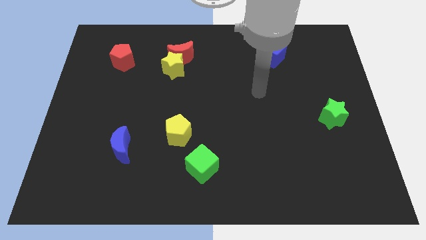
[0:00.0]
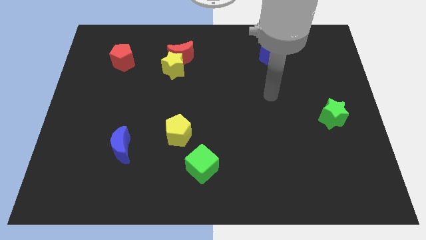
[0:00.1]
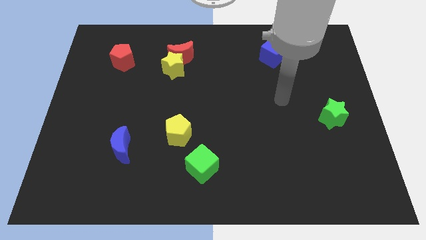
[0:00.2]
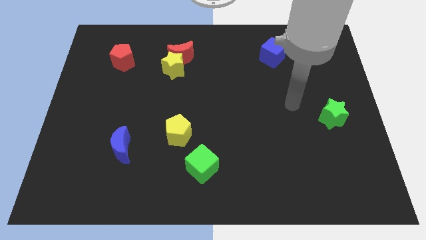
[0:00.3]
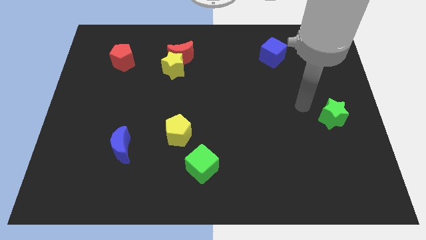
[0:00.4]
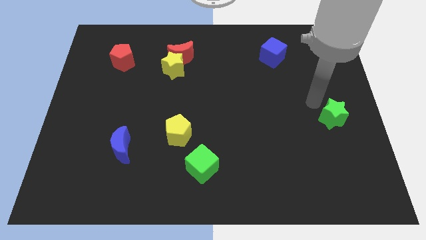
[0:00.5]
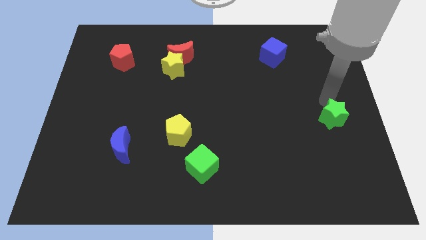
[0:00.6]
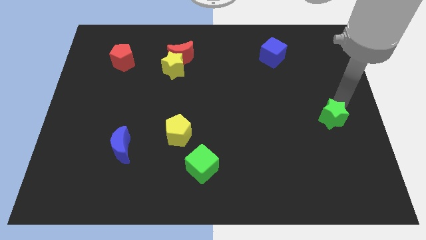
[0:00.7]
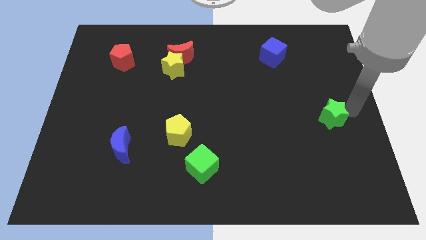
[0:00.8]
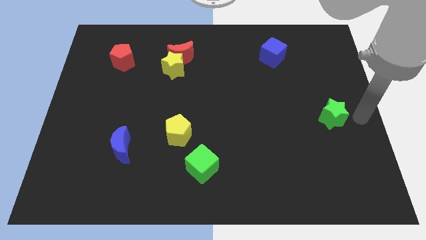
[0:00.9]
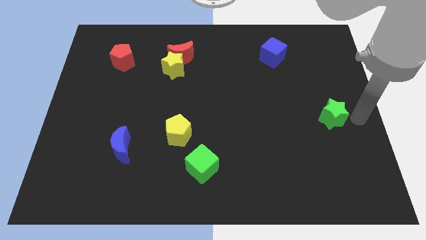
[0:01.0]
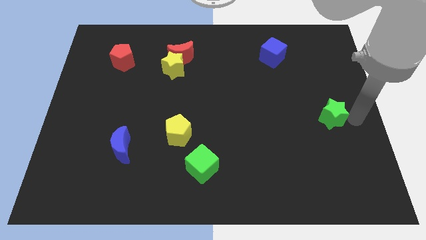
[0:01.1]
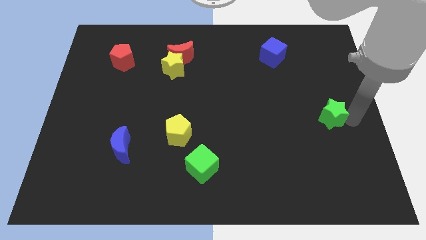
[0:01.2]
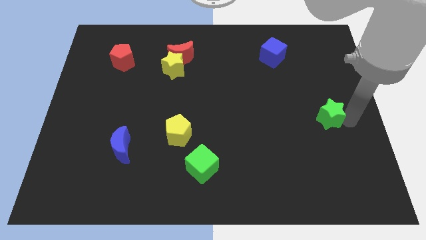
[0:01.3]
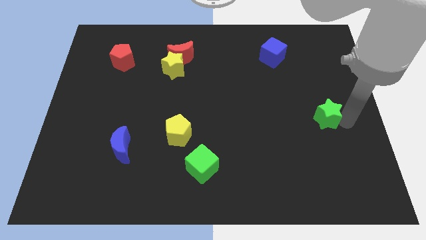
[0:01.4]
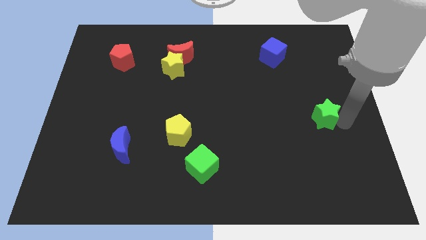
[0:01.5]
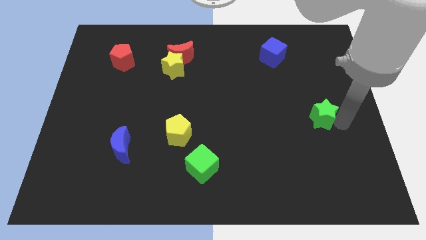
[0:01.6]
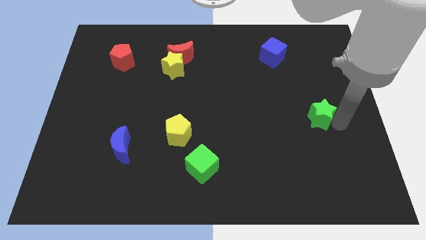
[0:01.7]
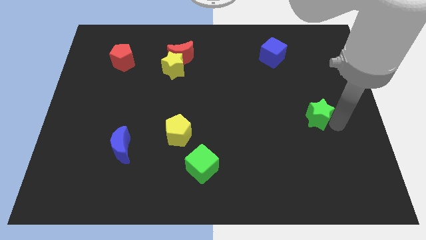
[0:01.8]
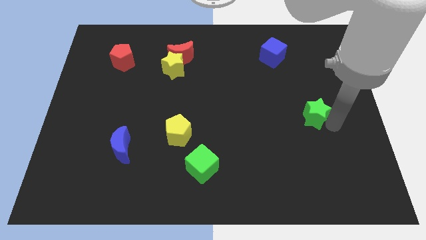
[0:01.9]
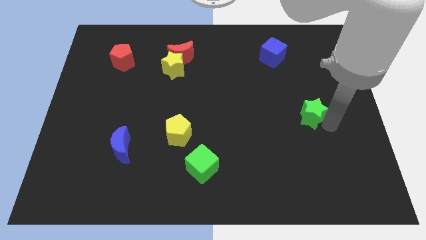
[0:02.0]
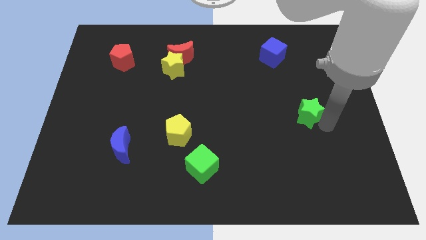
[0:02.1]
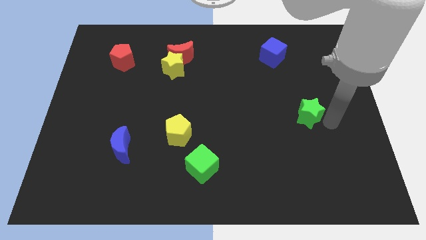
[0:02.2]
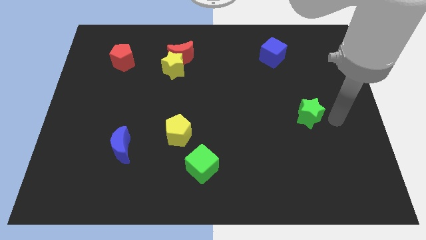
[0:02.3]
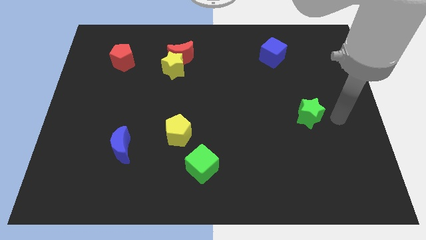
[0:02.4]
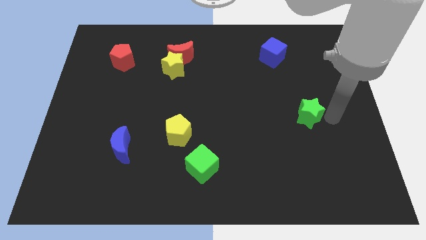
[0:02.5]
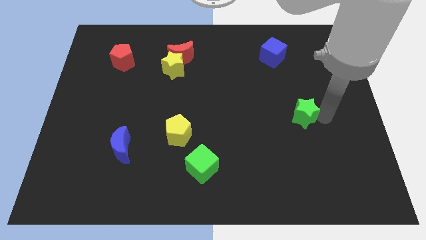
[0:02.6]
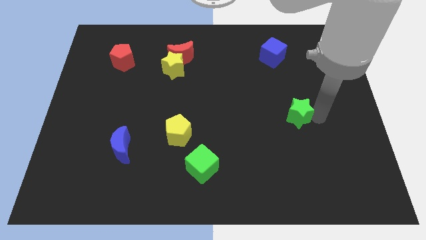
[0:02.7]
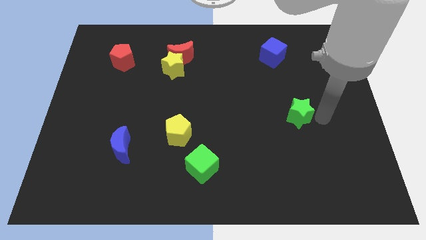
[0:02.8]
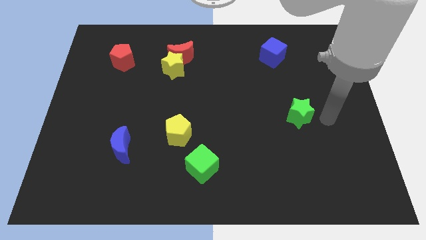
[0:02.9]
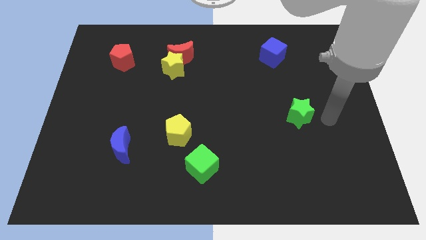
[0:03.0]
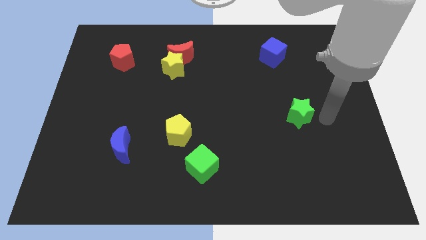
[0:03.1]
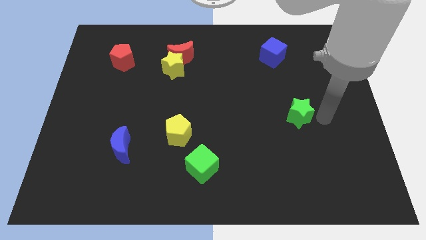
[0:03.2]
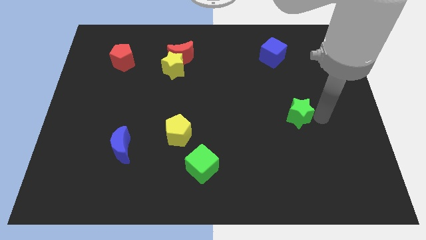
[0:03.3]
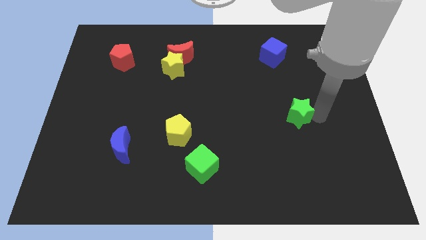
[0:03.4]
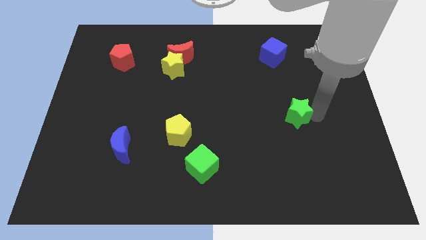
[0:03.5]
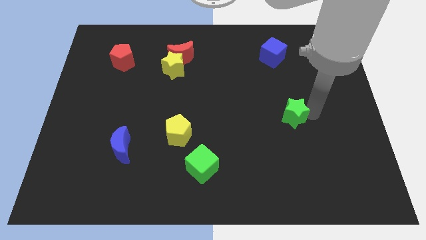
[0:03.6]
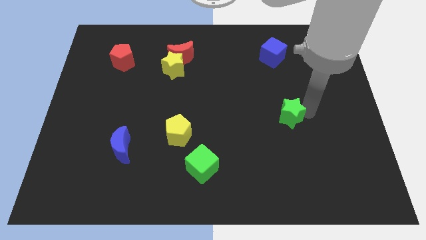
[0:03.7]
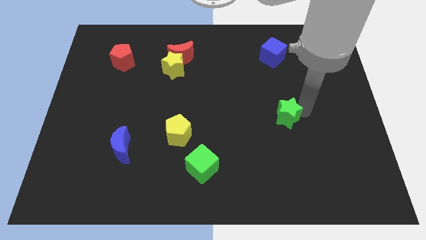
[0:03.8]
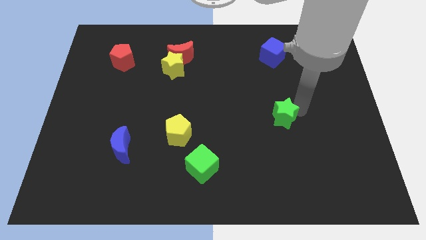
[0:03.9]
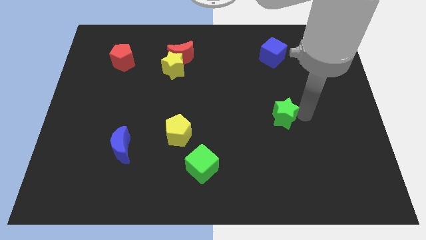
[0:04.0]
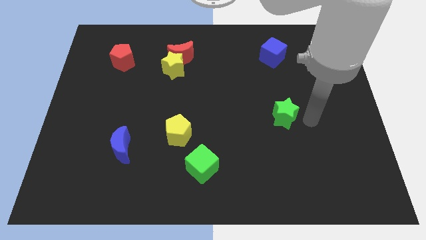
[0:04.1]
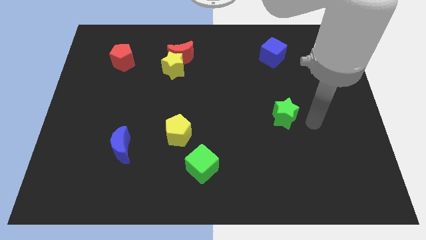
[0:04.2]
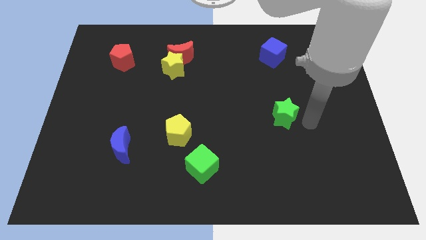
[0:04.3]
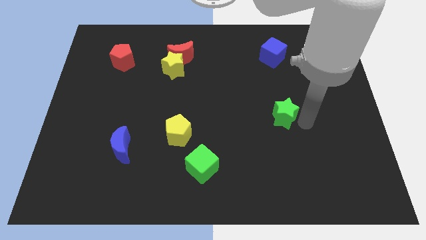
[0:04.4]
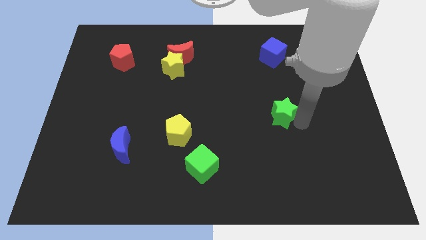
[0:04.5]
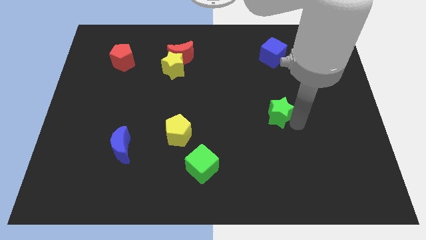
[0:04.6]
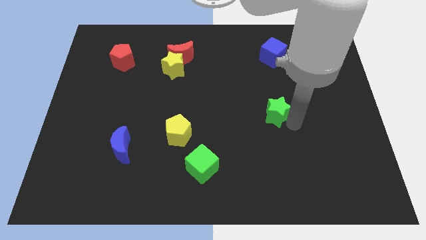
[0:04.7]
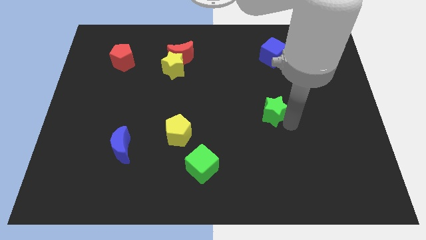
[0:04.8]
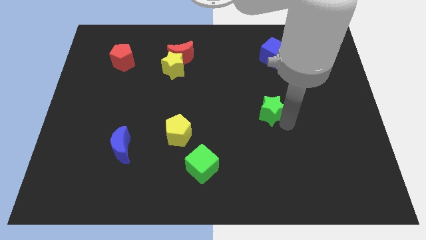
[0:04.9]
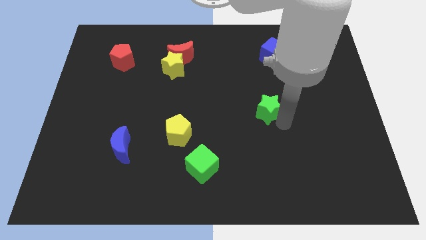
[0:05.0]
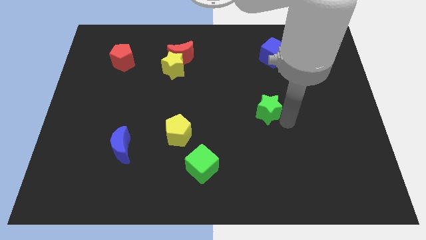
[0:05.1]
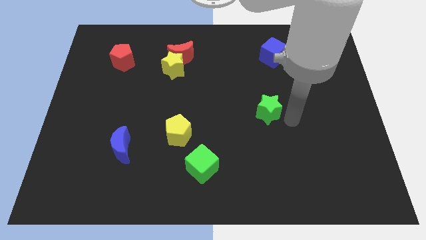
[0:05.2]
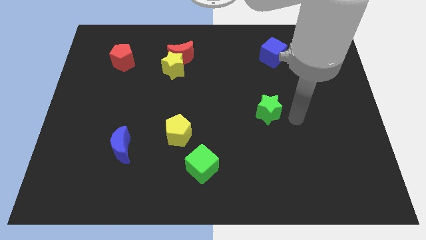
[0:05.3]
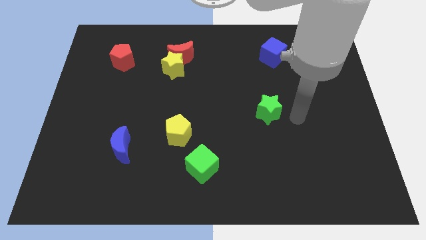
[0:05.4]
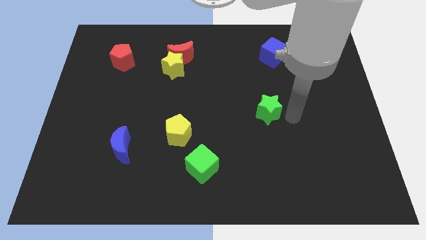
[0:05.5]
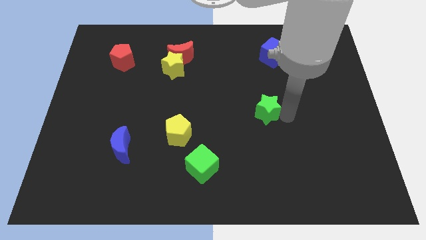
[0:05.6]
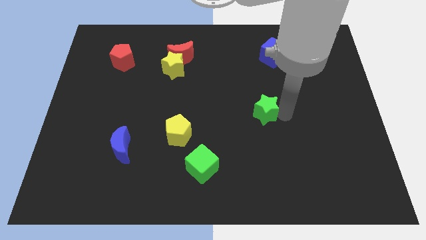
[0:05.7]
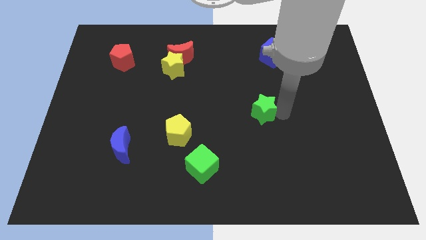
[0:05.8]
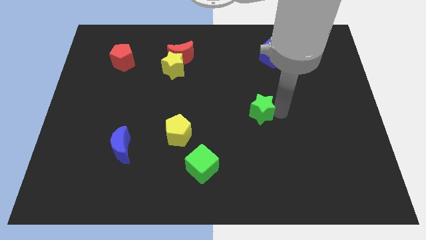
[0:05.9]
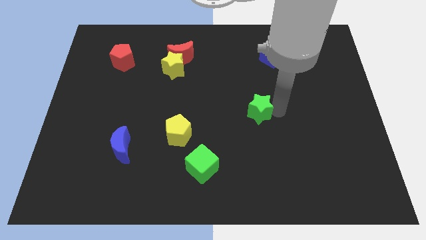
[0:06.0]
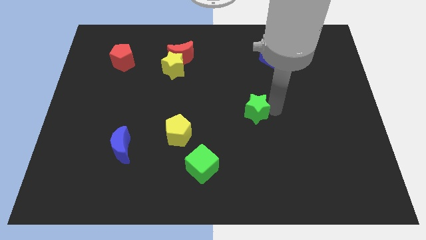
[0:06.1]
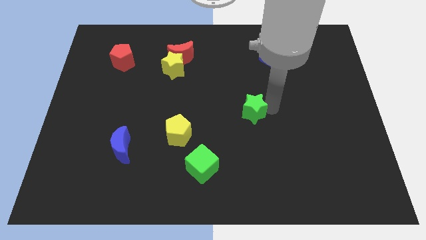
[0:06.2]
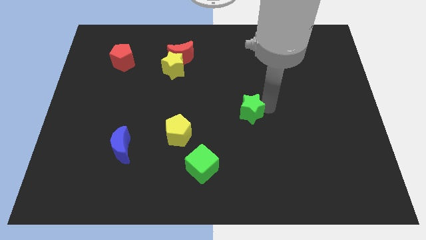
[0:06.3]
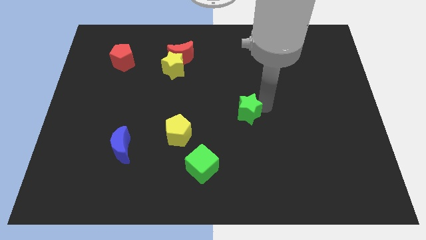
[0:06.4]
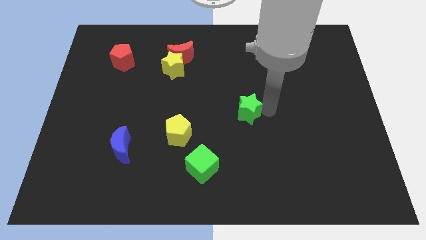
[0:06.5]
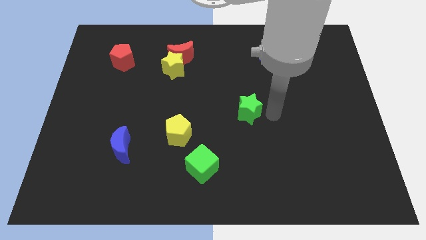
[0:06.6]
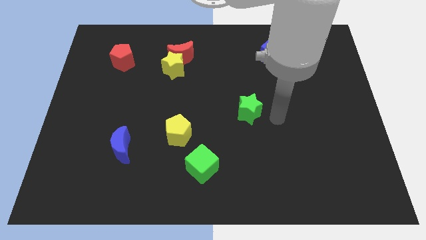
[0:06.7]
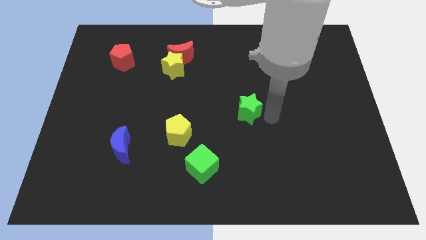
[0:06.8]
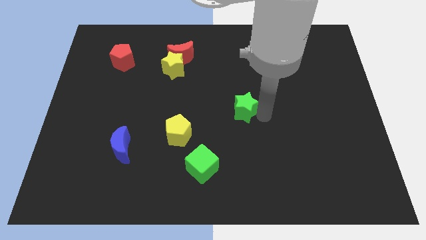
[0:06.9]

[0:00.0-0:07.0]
move the green star to the left

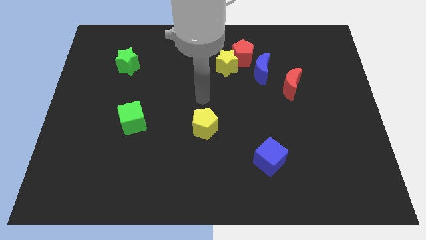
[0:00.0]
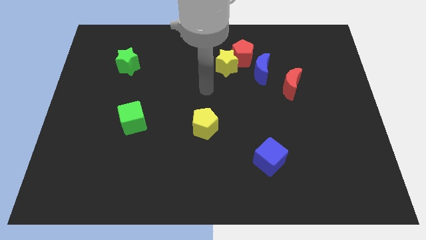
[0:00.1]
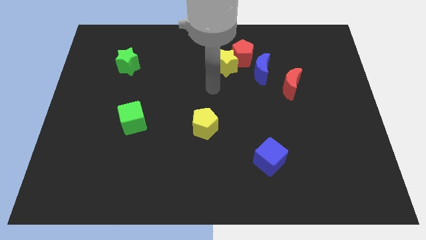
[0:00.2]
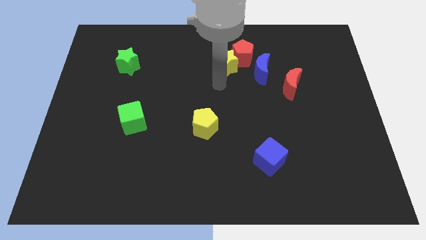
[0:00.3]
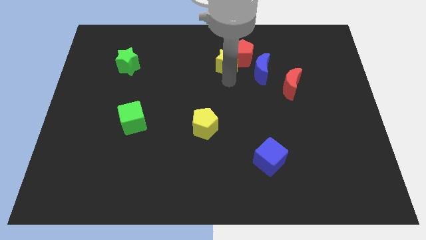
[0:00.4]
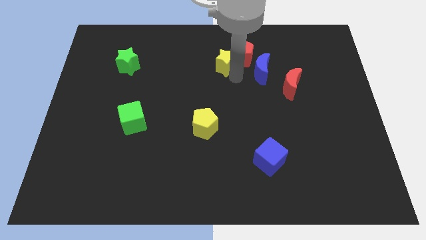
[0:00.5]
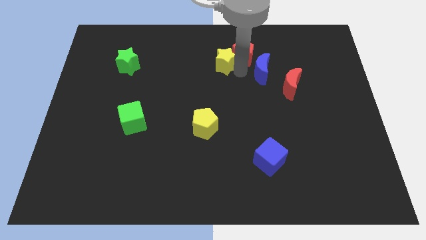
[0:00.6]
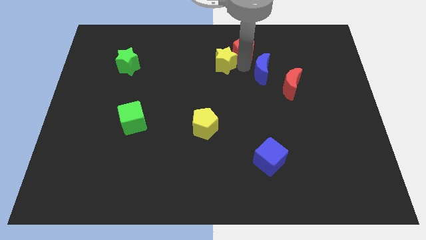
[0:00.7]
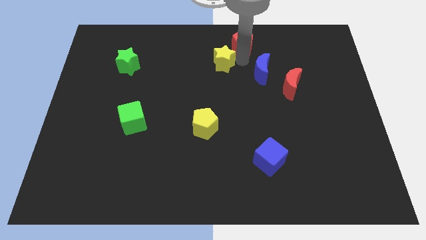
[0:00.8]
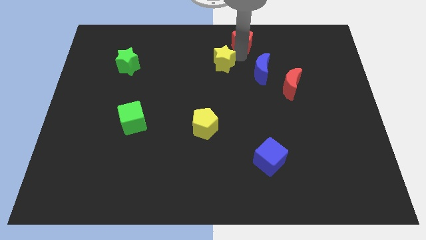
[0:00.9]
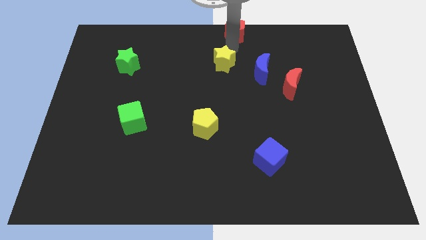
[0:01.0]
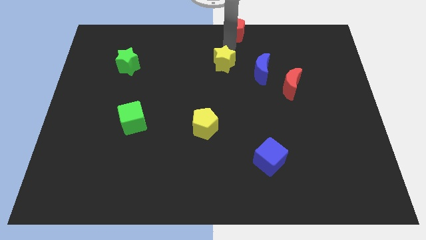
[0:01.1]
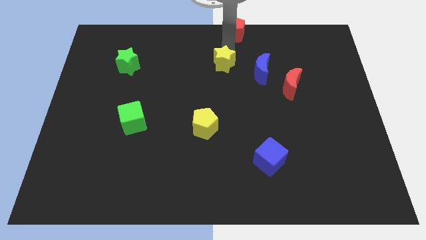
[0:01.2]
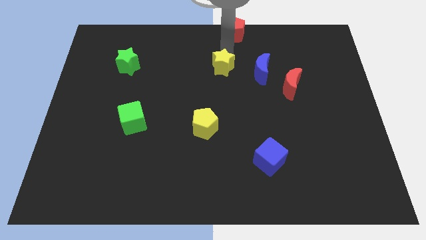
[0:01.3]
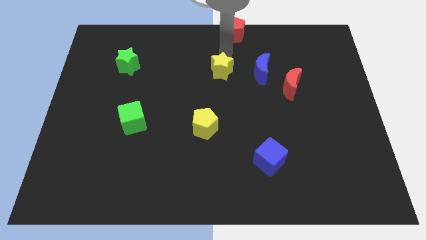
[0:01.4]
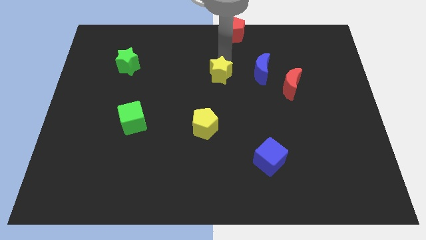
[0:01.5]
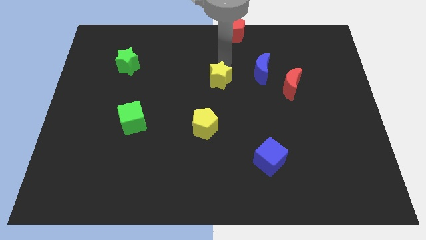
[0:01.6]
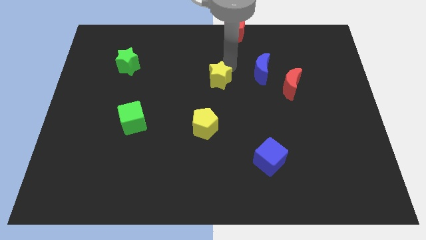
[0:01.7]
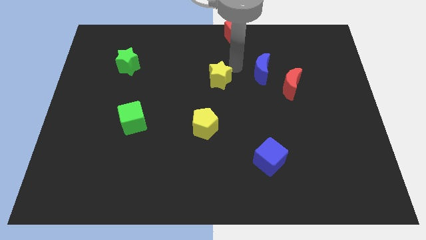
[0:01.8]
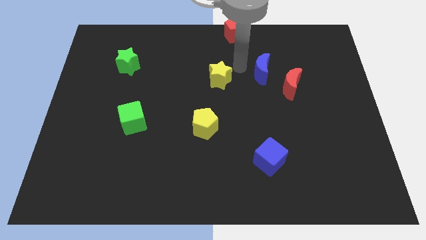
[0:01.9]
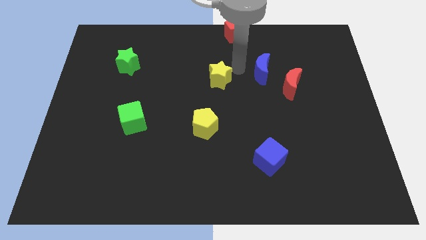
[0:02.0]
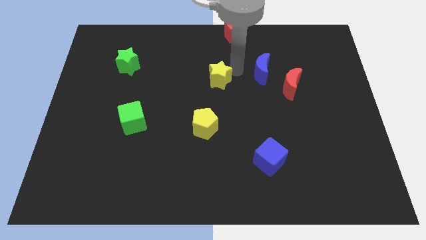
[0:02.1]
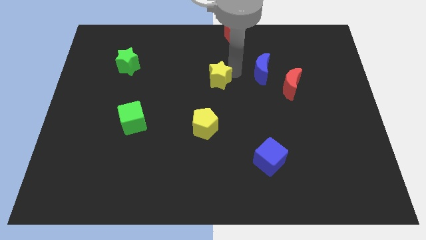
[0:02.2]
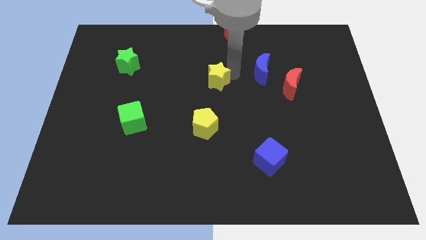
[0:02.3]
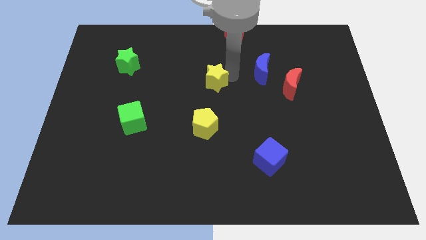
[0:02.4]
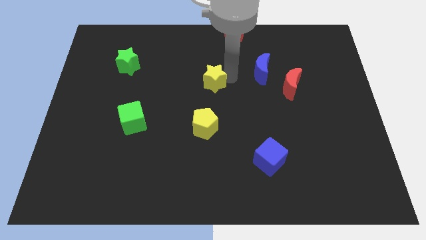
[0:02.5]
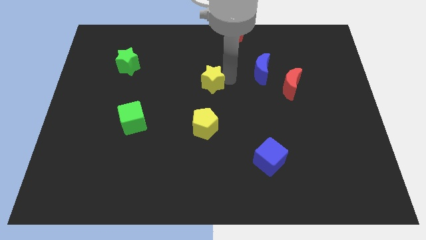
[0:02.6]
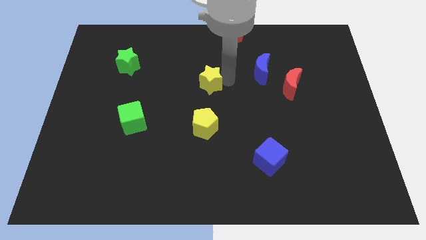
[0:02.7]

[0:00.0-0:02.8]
push the yellow star downwards and left somewhat
